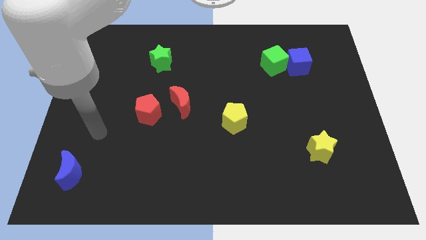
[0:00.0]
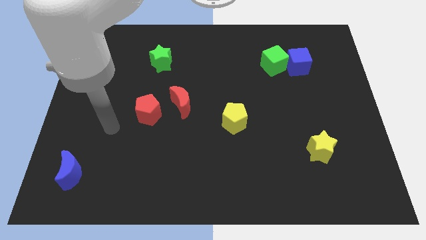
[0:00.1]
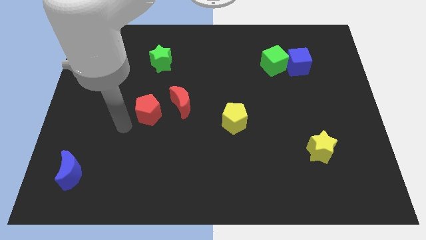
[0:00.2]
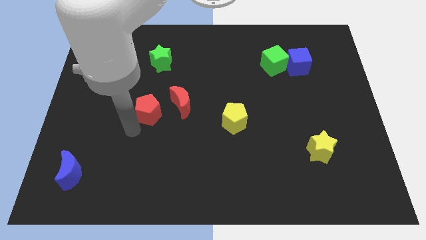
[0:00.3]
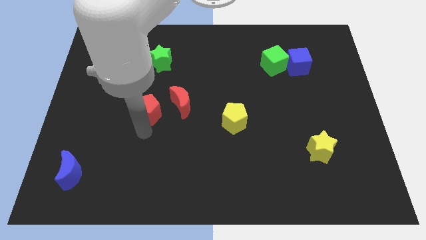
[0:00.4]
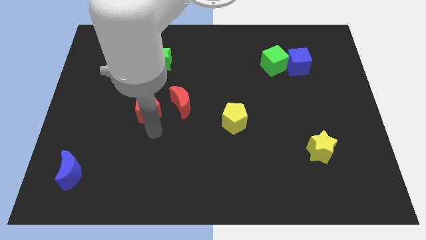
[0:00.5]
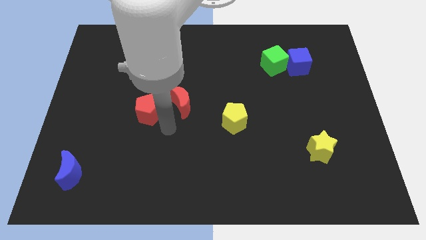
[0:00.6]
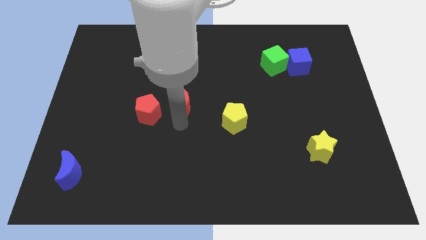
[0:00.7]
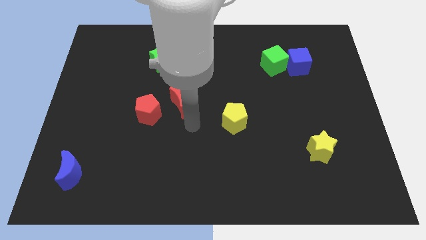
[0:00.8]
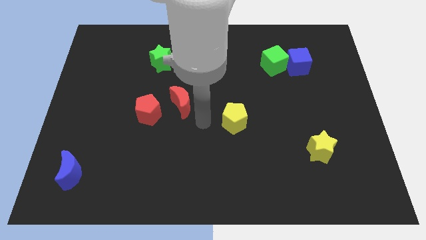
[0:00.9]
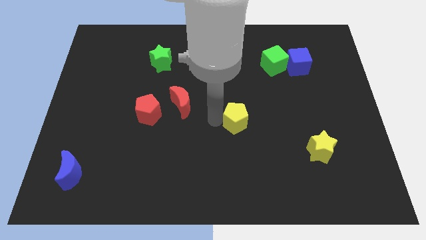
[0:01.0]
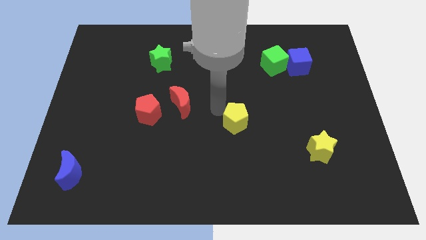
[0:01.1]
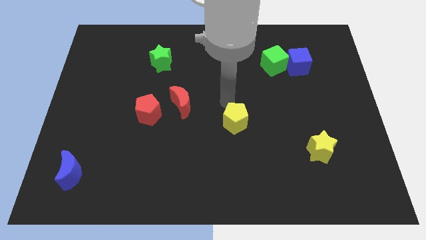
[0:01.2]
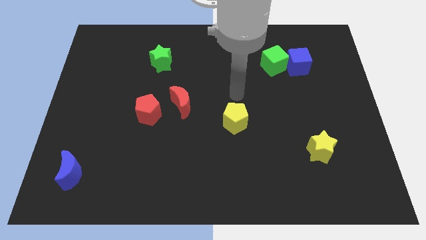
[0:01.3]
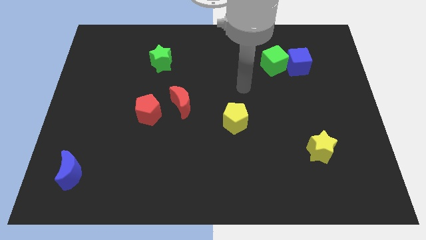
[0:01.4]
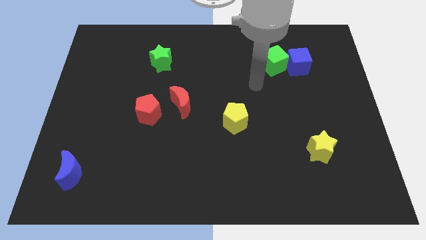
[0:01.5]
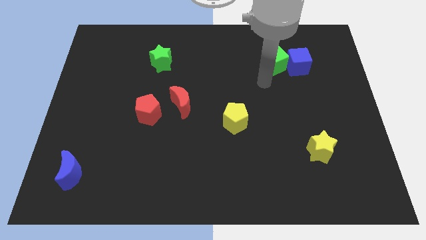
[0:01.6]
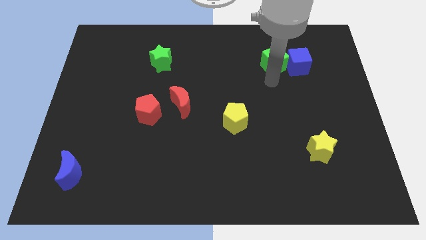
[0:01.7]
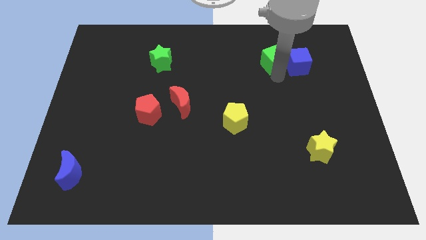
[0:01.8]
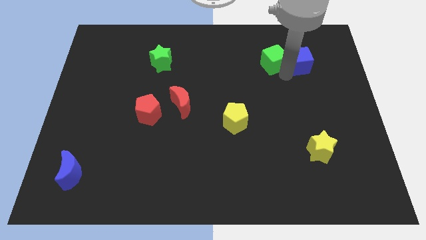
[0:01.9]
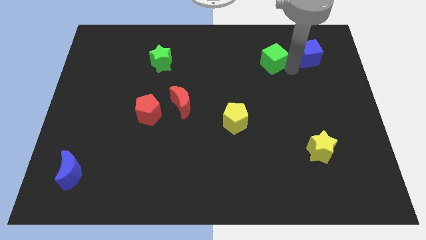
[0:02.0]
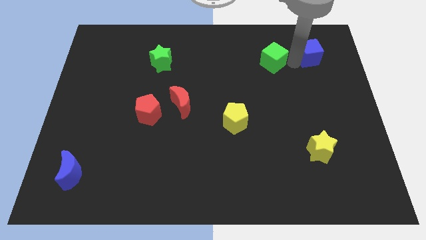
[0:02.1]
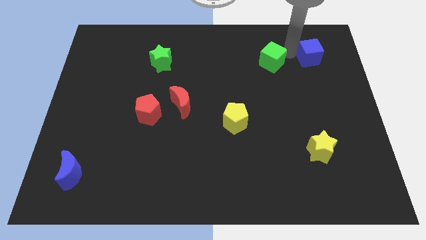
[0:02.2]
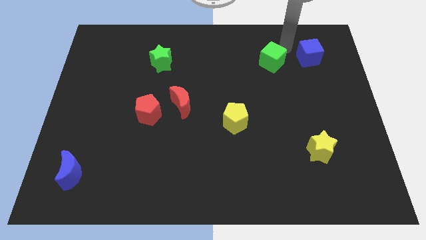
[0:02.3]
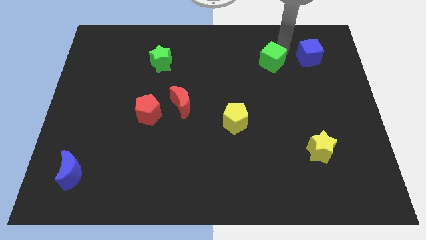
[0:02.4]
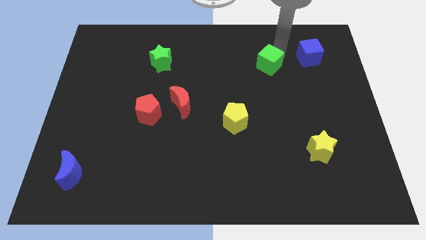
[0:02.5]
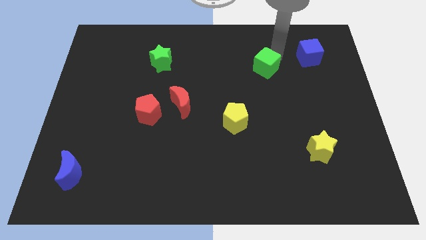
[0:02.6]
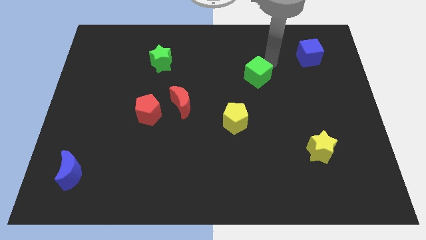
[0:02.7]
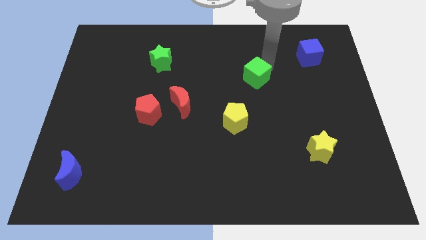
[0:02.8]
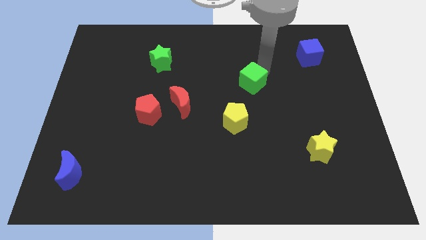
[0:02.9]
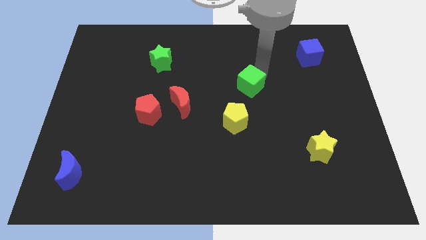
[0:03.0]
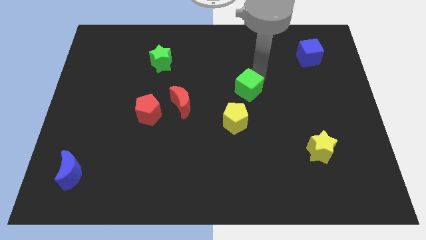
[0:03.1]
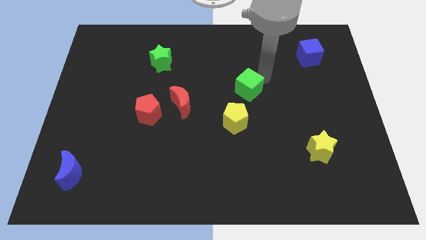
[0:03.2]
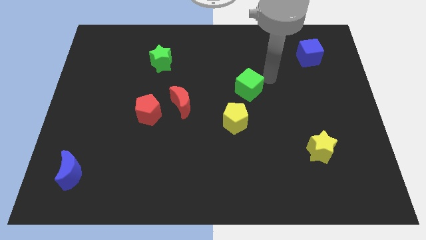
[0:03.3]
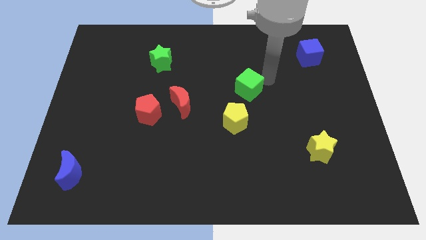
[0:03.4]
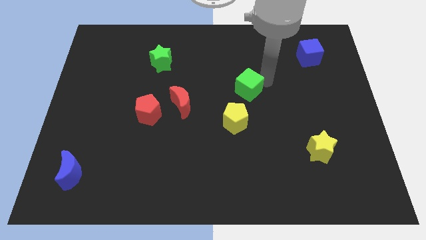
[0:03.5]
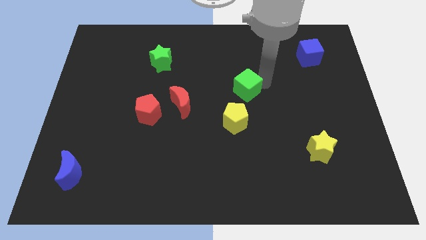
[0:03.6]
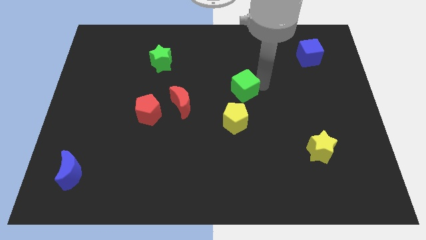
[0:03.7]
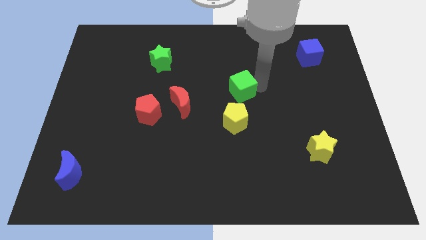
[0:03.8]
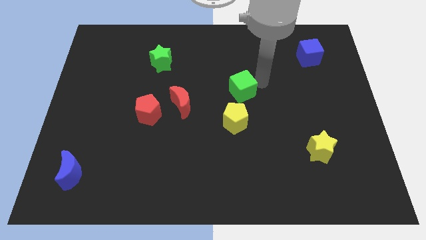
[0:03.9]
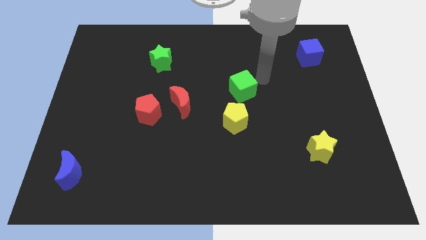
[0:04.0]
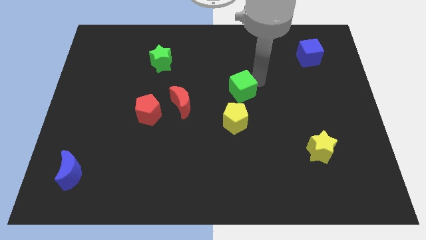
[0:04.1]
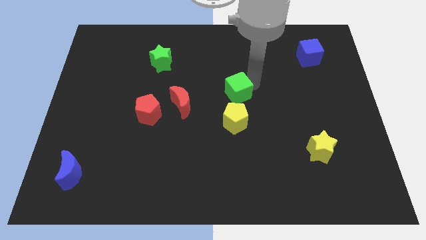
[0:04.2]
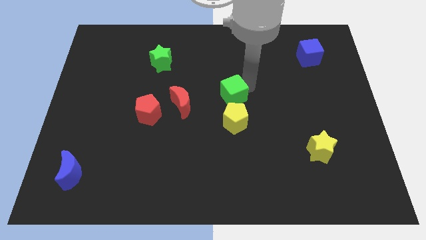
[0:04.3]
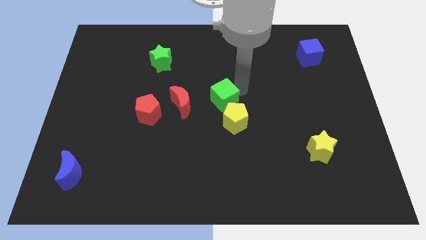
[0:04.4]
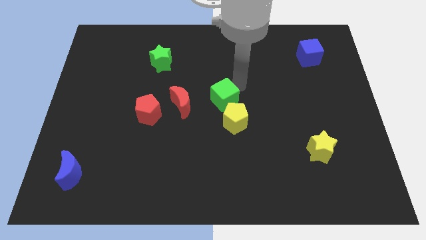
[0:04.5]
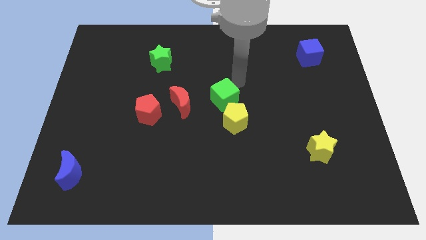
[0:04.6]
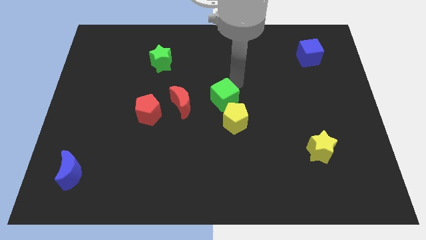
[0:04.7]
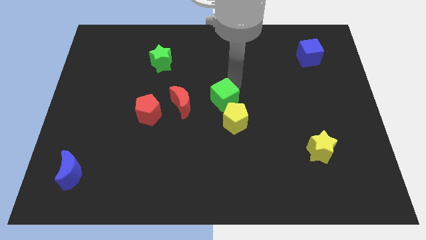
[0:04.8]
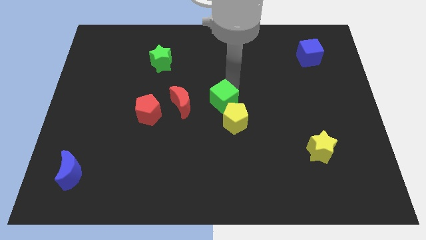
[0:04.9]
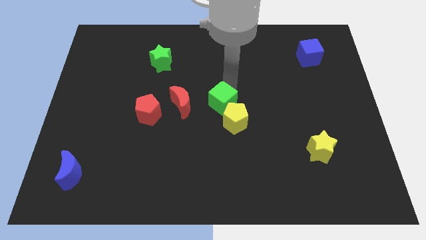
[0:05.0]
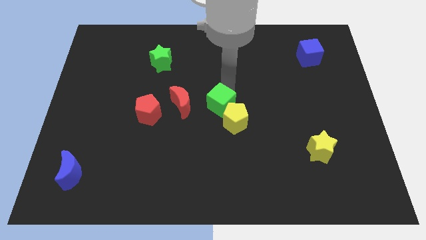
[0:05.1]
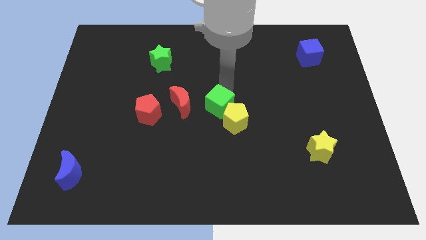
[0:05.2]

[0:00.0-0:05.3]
slide the green cube diagonally downwards and to the left

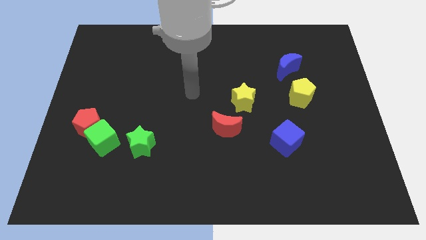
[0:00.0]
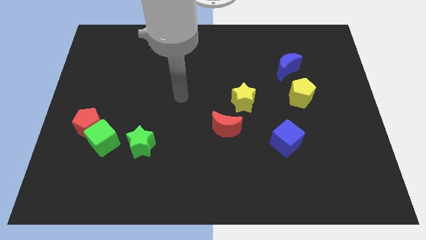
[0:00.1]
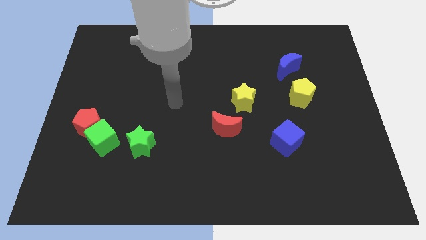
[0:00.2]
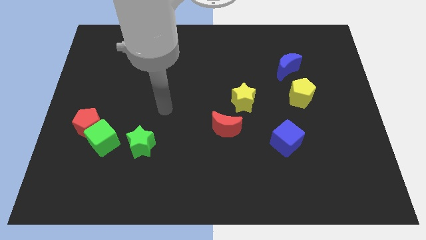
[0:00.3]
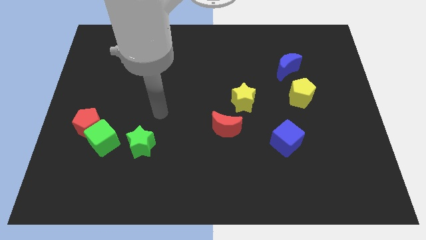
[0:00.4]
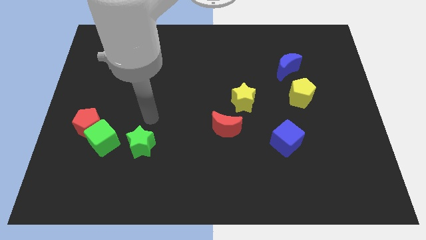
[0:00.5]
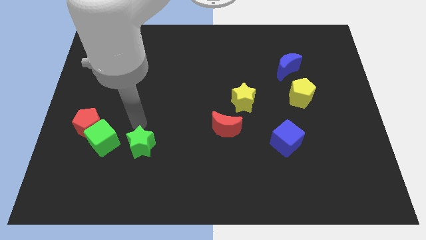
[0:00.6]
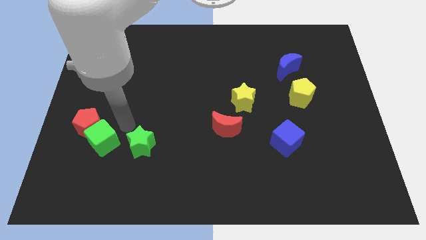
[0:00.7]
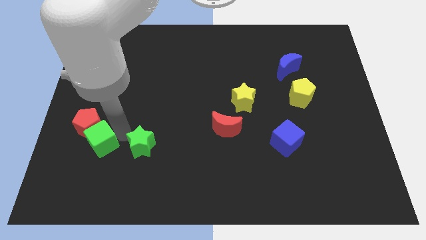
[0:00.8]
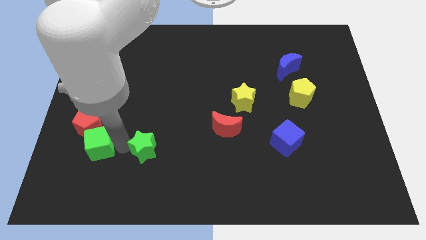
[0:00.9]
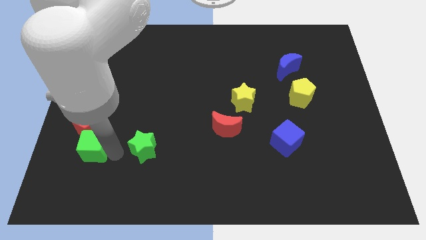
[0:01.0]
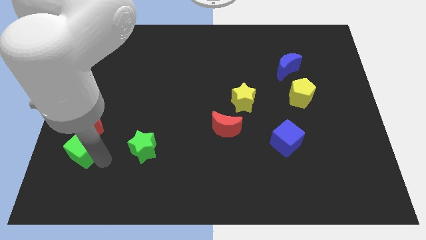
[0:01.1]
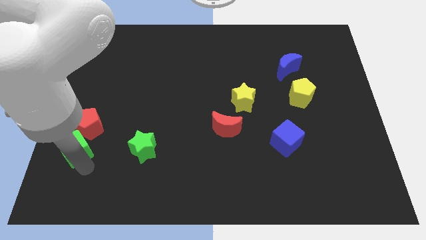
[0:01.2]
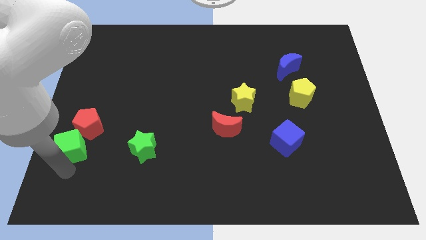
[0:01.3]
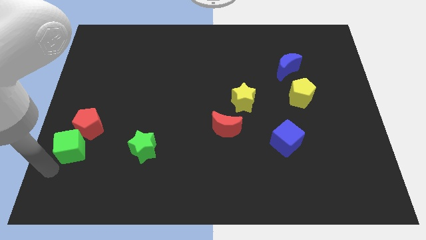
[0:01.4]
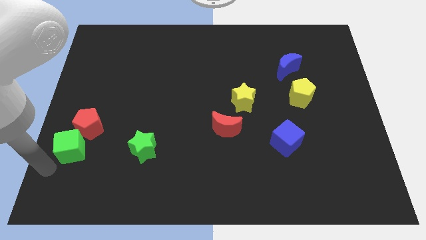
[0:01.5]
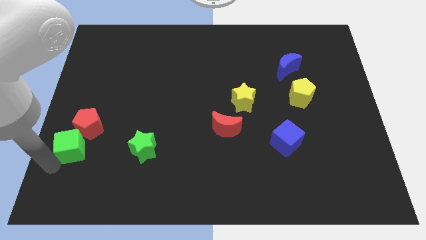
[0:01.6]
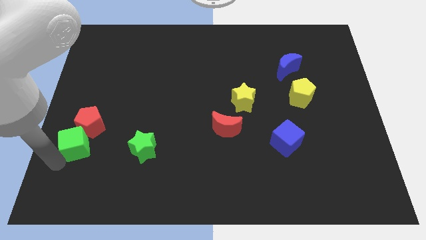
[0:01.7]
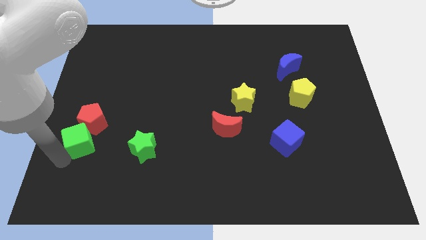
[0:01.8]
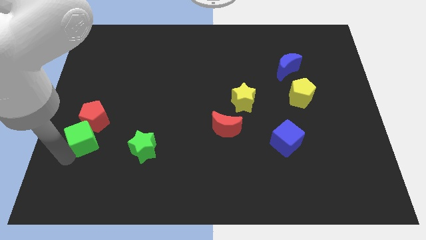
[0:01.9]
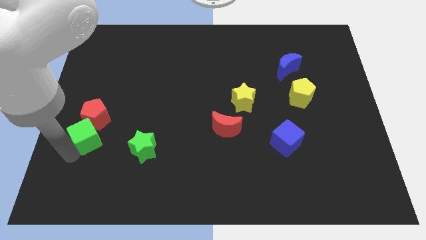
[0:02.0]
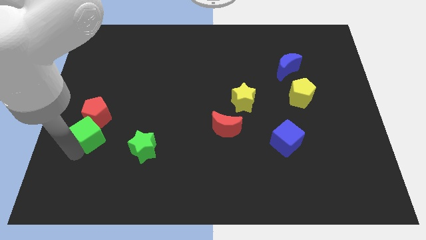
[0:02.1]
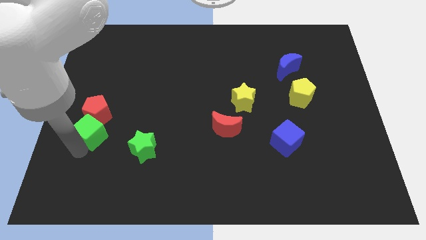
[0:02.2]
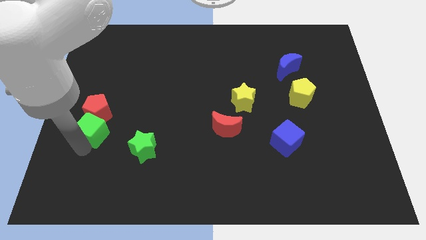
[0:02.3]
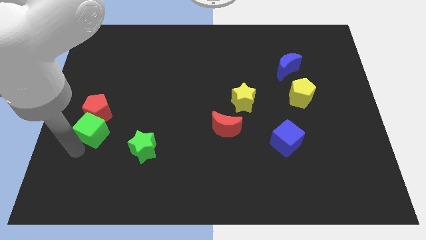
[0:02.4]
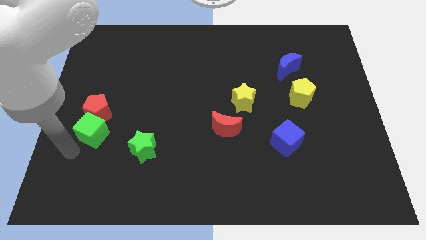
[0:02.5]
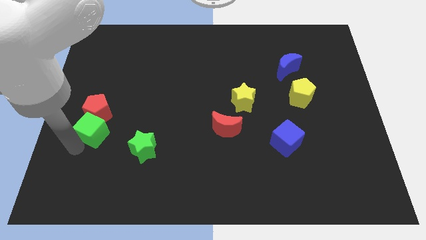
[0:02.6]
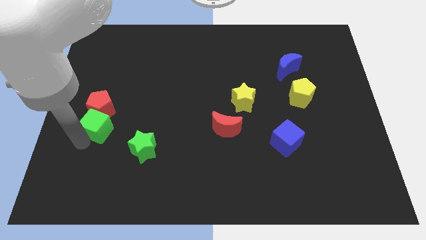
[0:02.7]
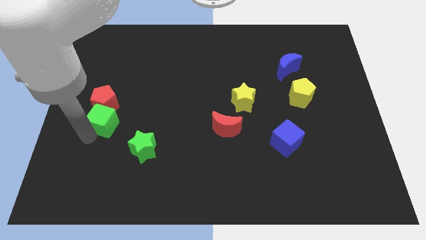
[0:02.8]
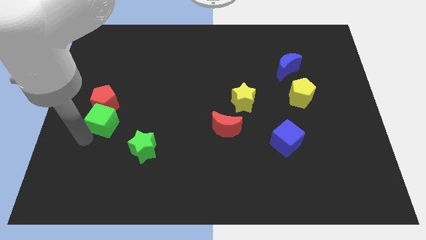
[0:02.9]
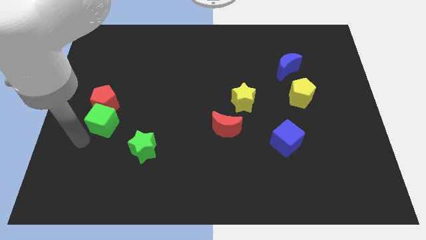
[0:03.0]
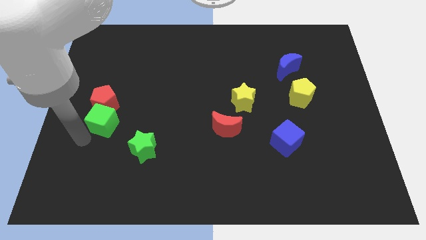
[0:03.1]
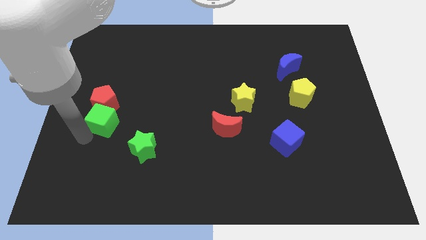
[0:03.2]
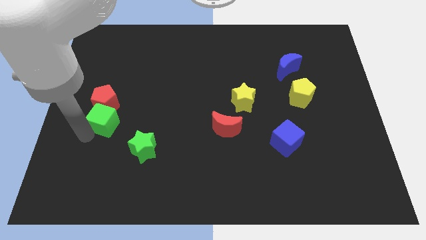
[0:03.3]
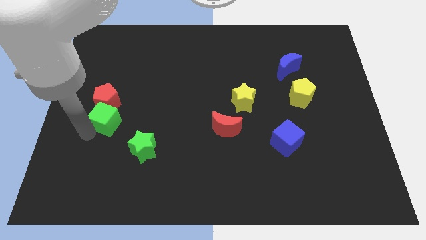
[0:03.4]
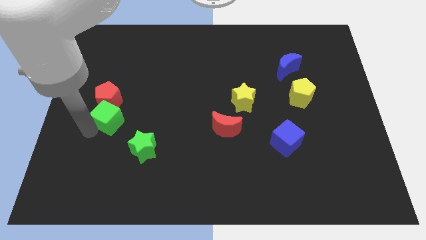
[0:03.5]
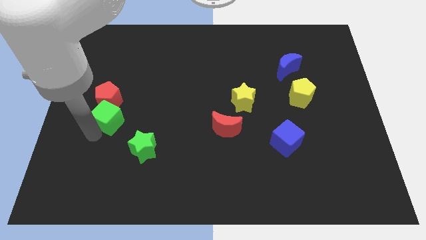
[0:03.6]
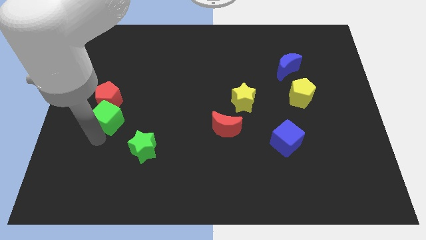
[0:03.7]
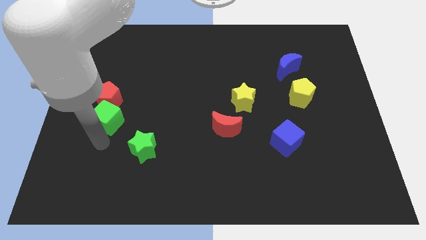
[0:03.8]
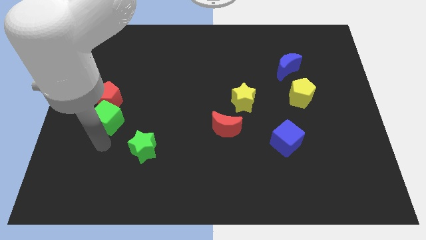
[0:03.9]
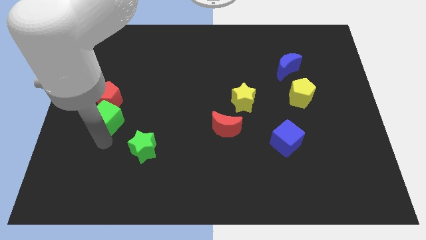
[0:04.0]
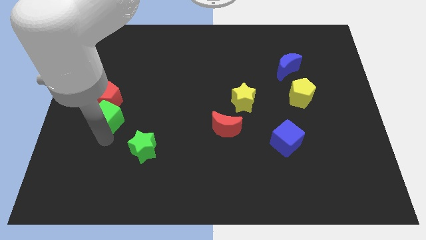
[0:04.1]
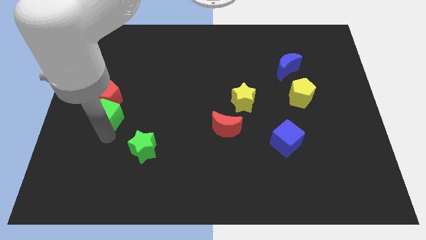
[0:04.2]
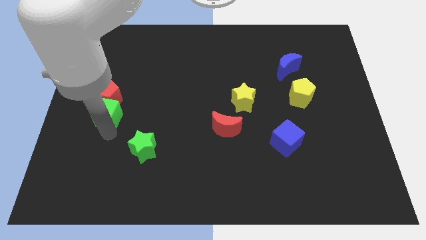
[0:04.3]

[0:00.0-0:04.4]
slightly push the green cube upwards
